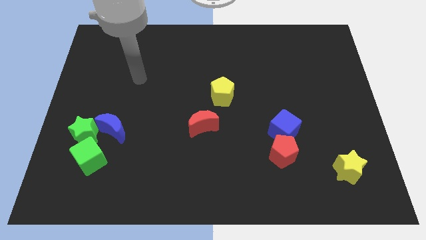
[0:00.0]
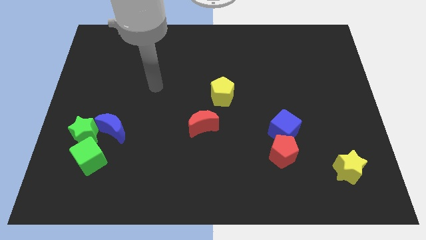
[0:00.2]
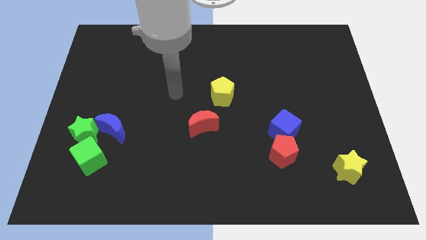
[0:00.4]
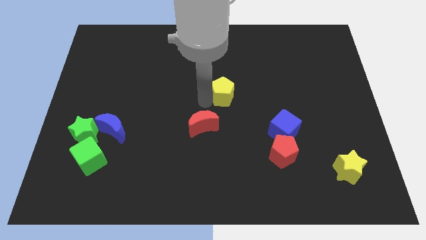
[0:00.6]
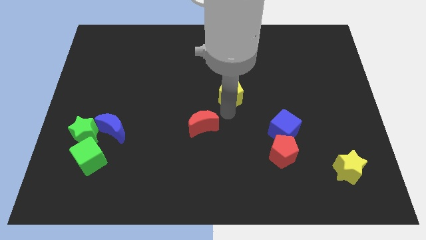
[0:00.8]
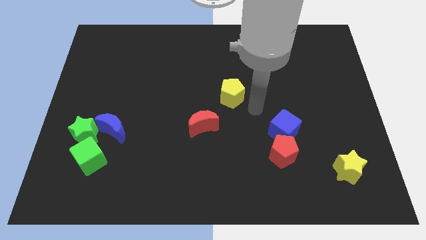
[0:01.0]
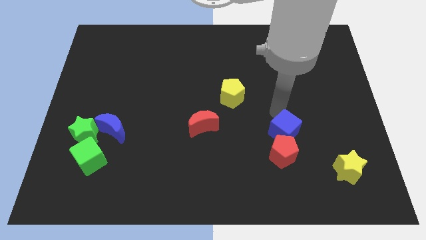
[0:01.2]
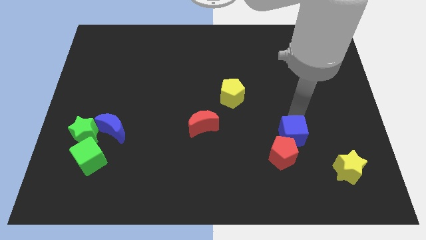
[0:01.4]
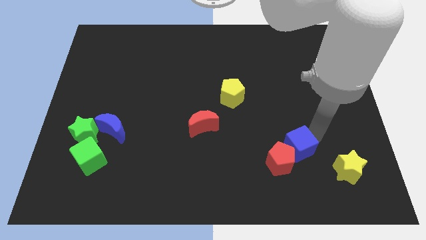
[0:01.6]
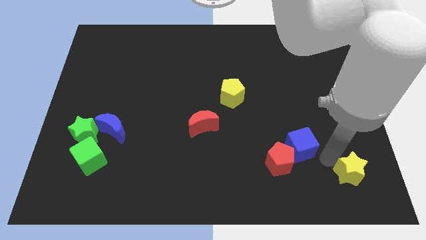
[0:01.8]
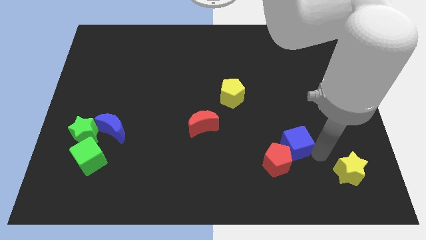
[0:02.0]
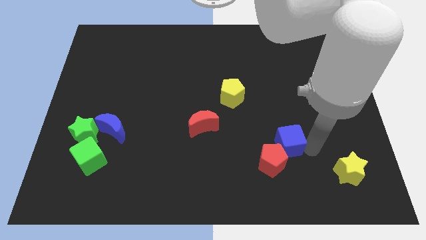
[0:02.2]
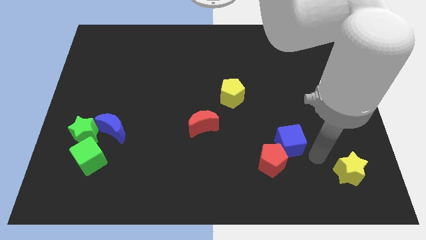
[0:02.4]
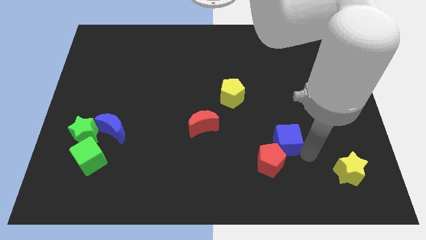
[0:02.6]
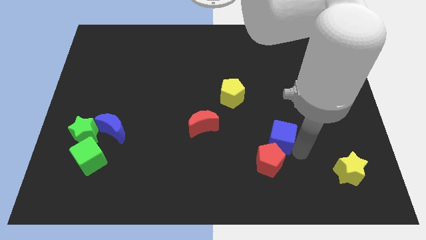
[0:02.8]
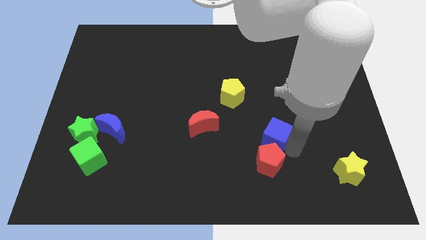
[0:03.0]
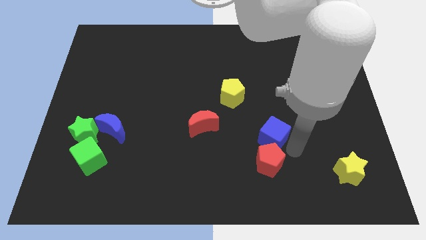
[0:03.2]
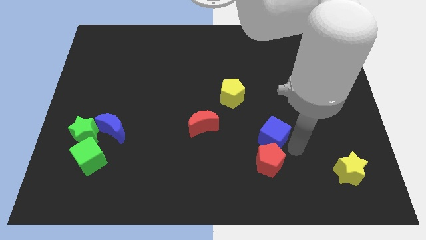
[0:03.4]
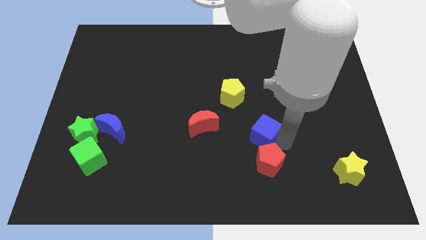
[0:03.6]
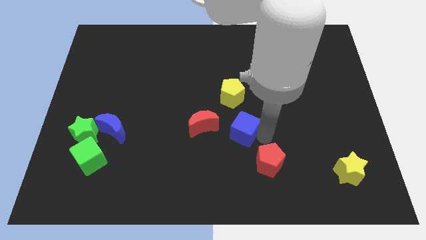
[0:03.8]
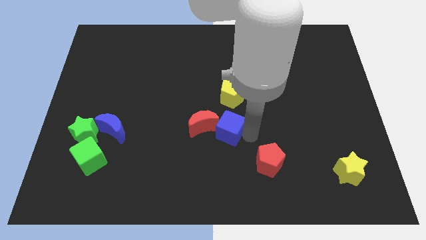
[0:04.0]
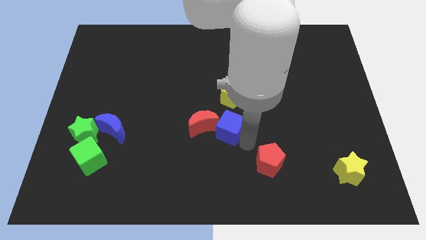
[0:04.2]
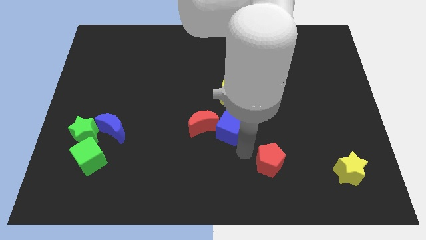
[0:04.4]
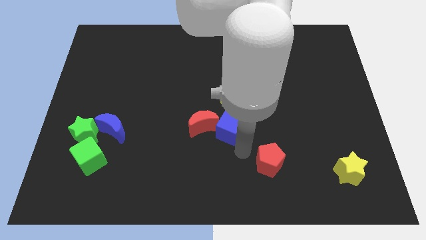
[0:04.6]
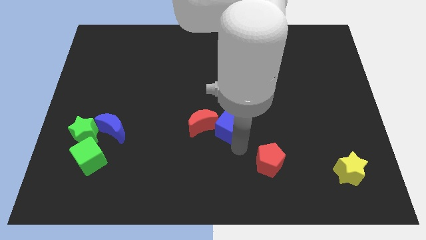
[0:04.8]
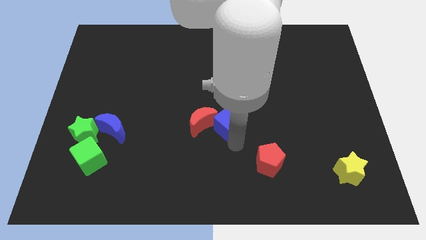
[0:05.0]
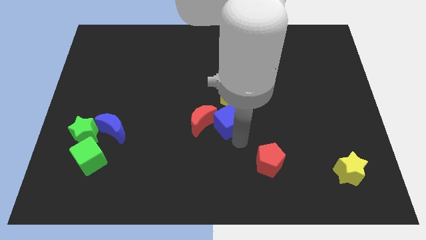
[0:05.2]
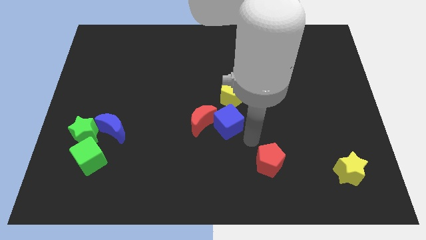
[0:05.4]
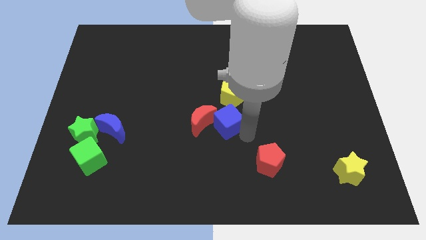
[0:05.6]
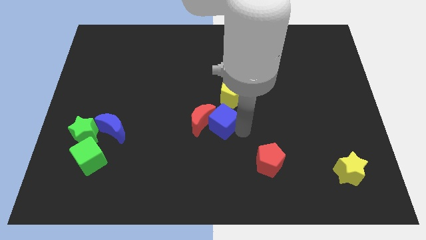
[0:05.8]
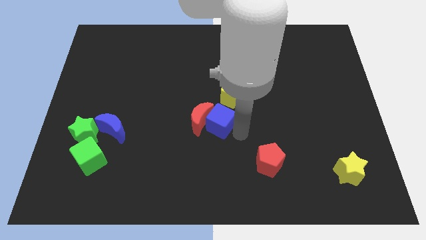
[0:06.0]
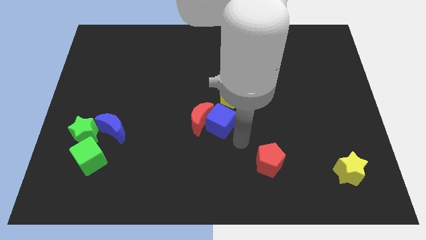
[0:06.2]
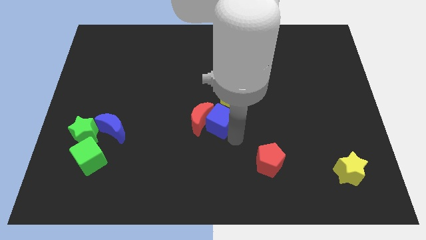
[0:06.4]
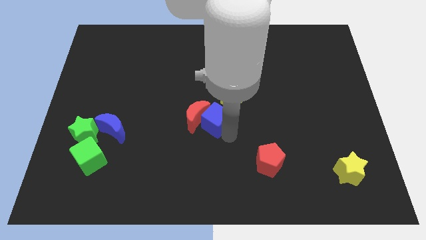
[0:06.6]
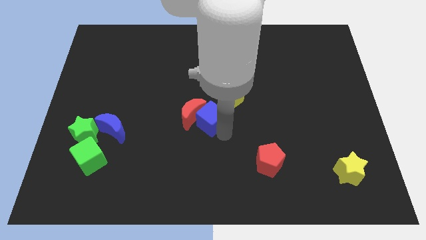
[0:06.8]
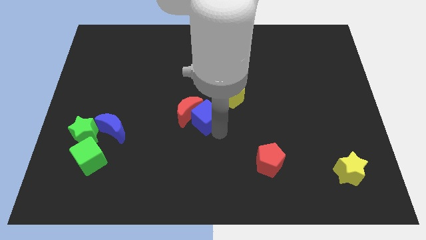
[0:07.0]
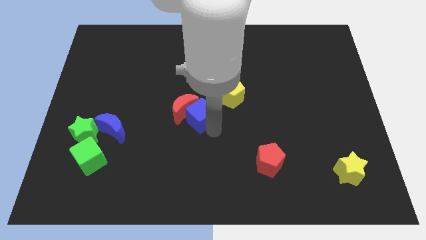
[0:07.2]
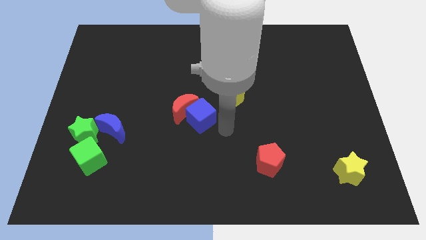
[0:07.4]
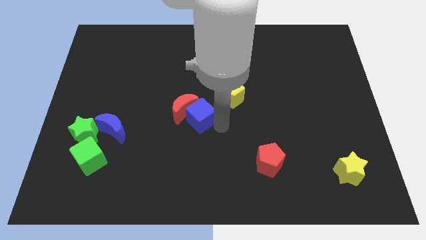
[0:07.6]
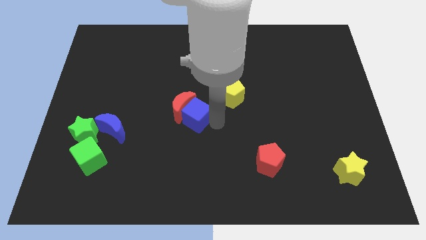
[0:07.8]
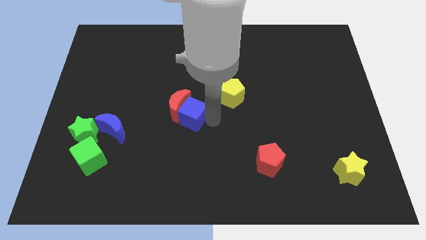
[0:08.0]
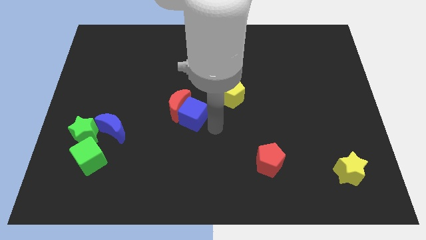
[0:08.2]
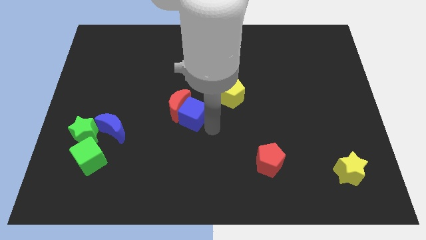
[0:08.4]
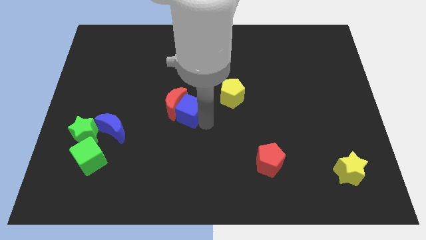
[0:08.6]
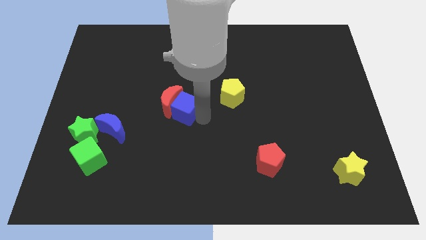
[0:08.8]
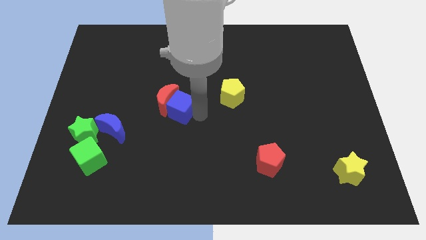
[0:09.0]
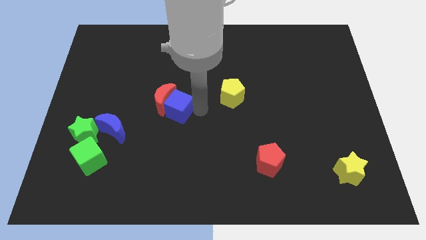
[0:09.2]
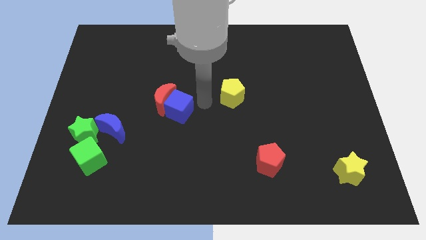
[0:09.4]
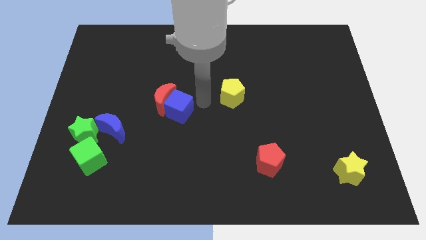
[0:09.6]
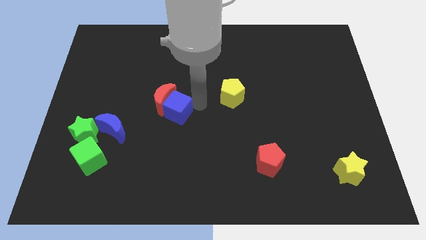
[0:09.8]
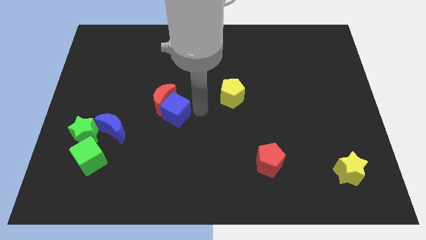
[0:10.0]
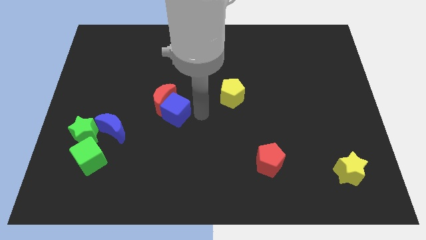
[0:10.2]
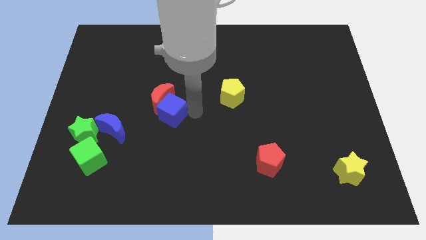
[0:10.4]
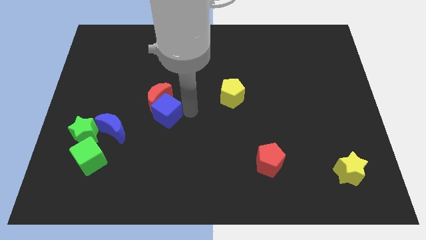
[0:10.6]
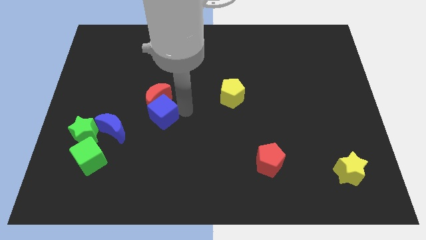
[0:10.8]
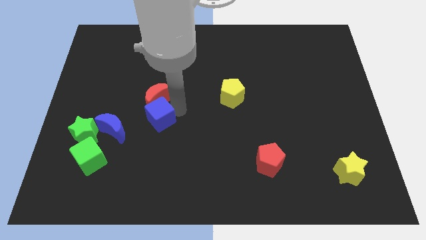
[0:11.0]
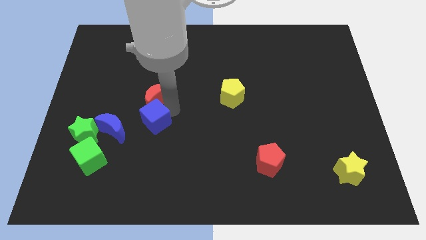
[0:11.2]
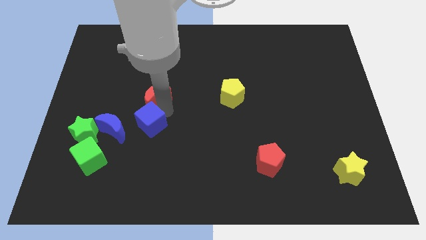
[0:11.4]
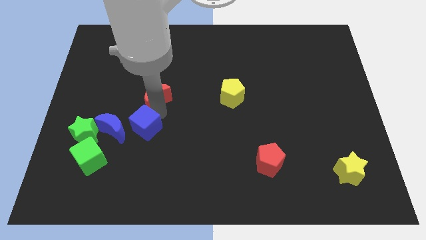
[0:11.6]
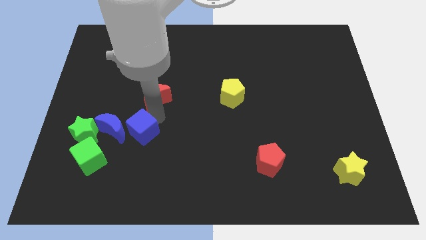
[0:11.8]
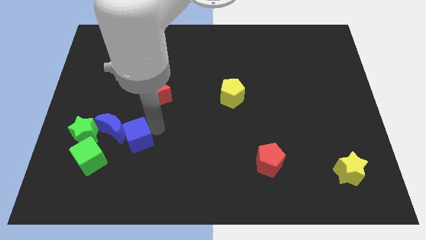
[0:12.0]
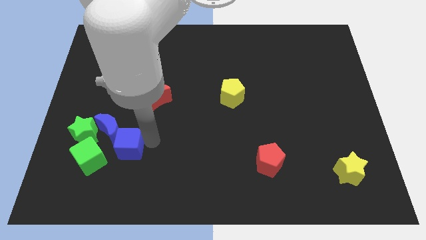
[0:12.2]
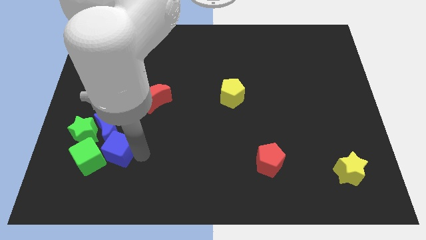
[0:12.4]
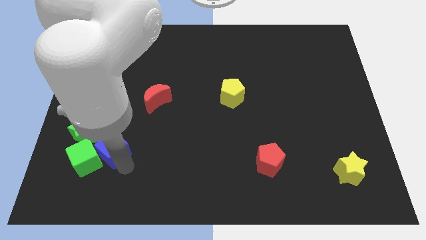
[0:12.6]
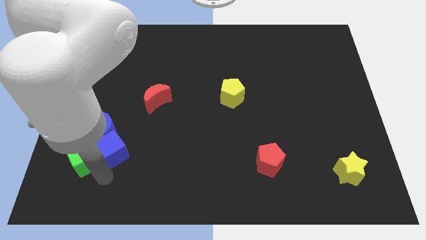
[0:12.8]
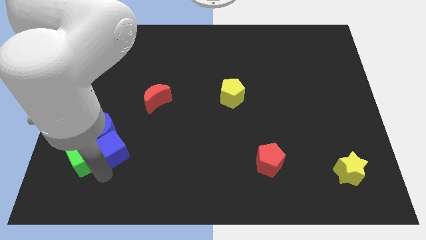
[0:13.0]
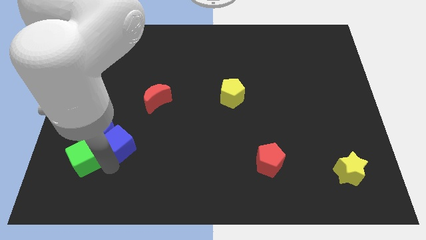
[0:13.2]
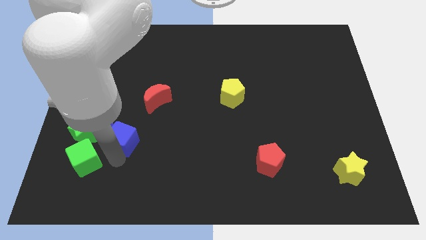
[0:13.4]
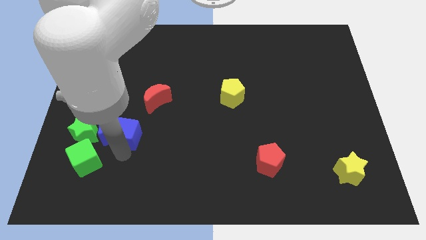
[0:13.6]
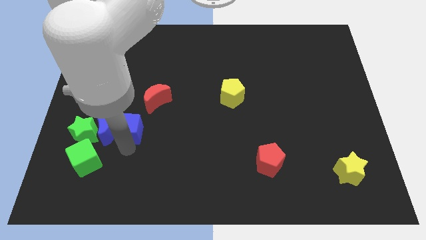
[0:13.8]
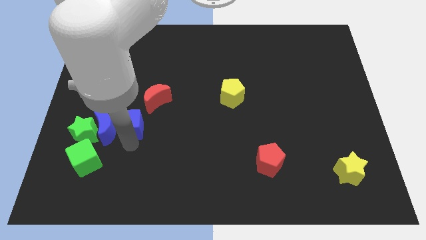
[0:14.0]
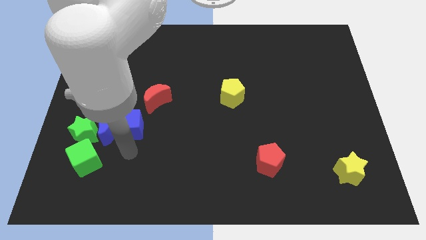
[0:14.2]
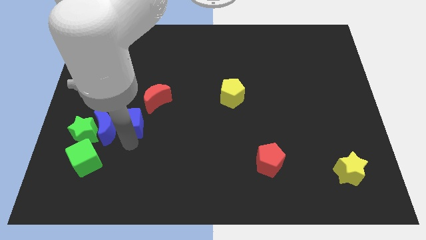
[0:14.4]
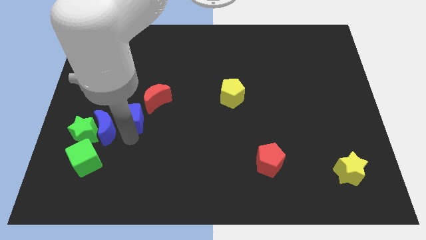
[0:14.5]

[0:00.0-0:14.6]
push the blue cube to the top right side of the green star
